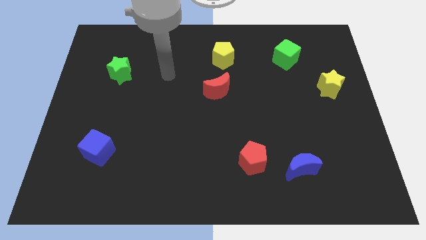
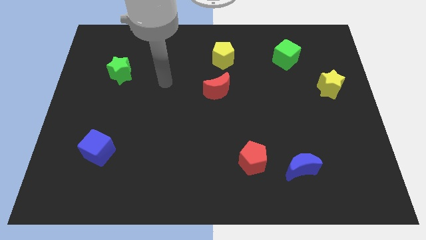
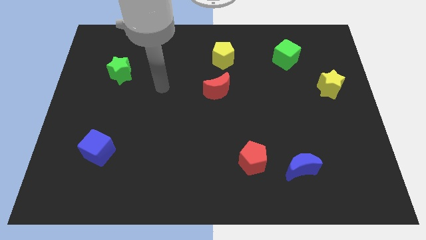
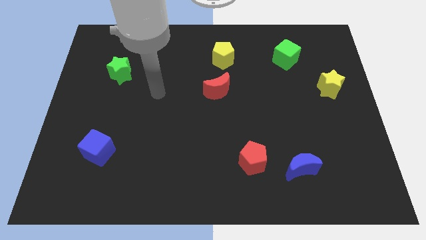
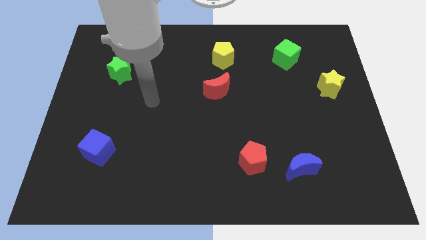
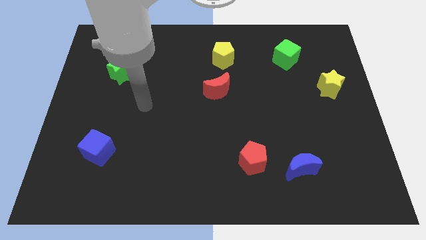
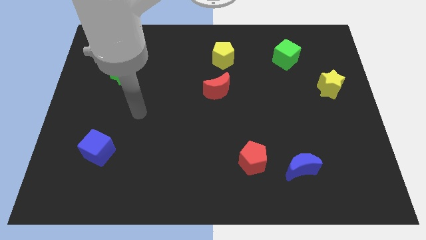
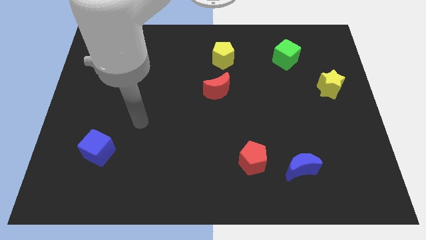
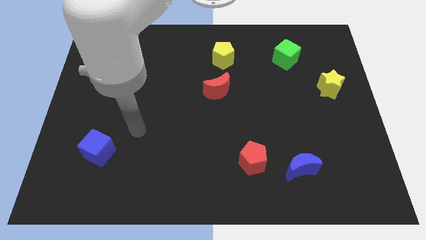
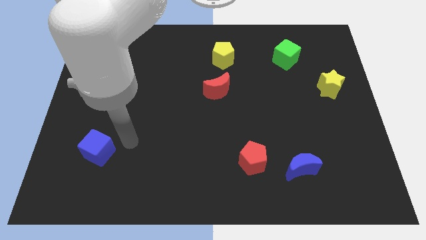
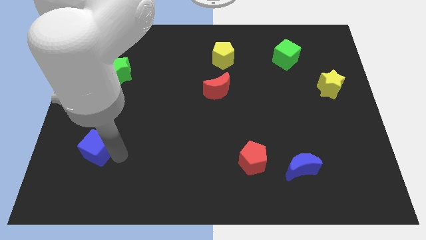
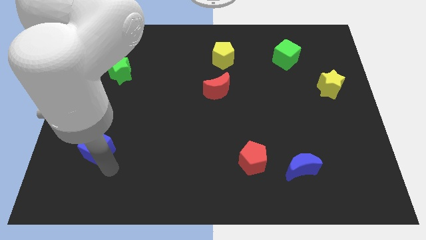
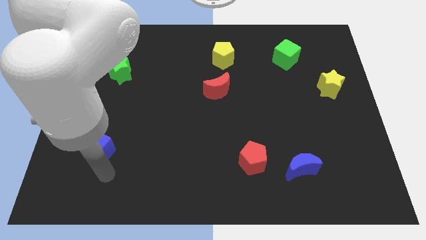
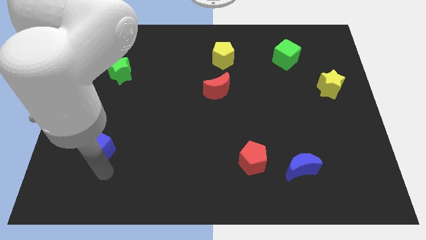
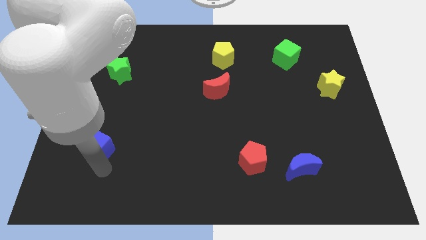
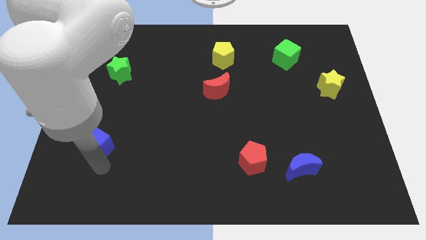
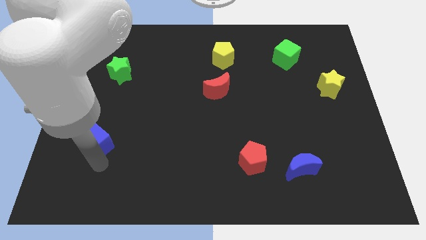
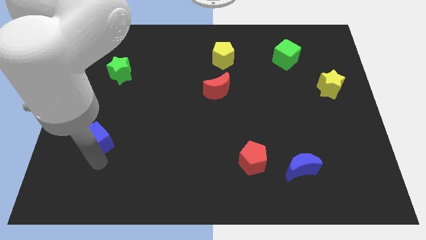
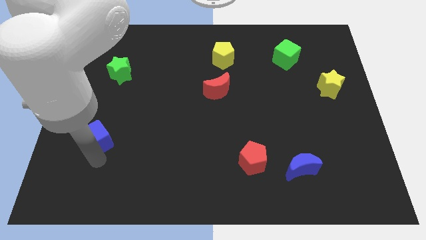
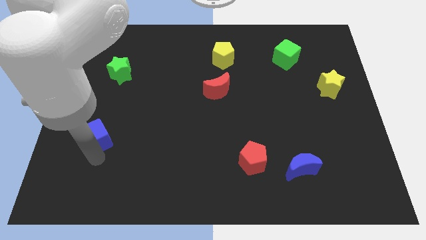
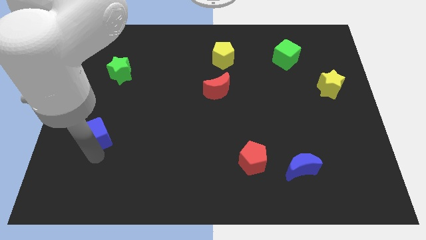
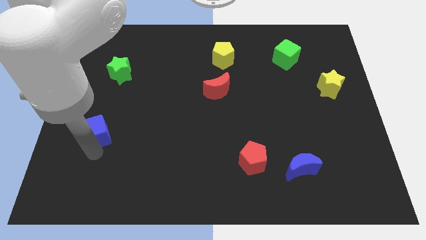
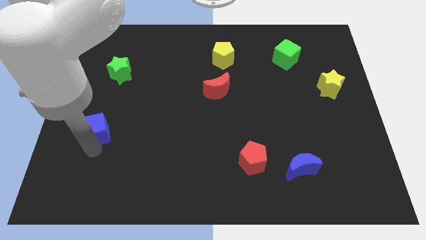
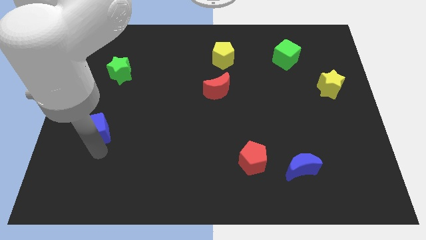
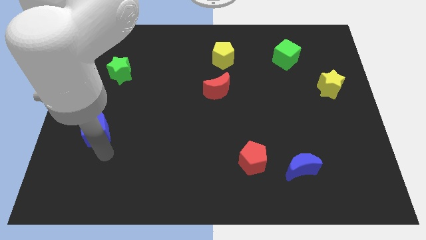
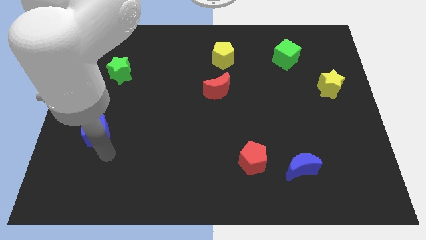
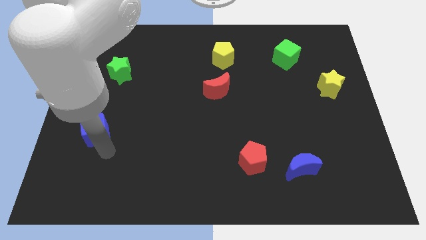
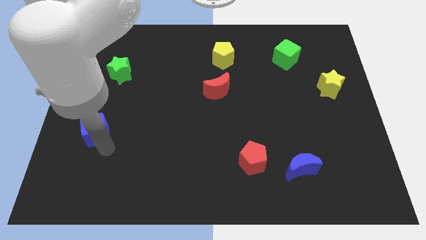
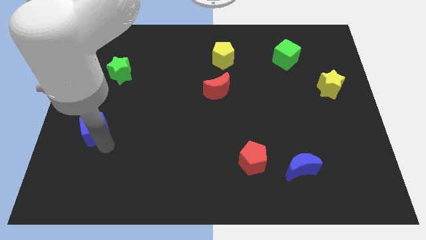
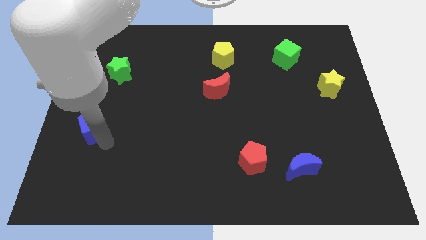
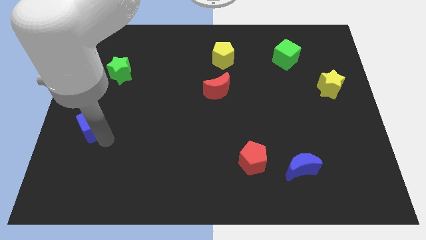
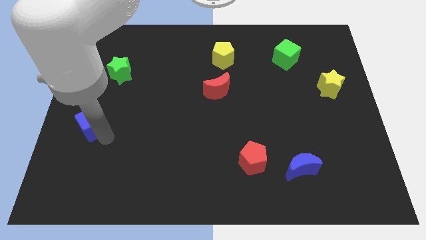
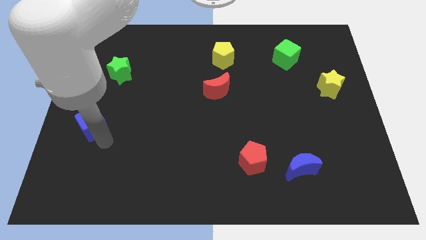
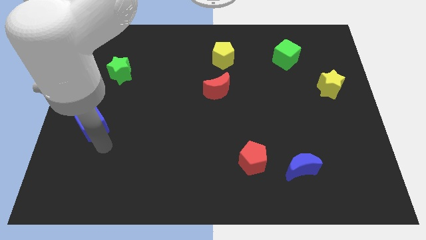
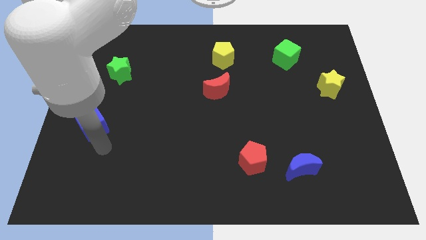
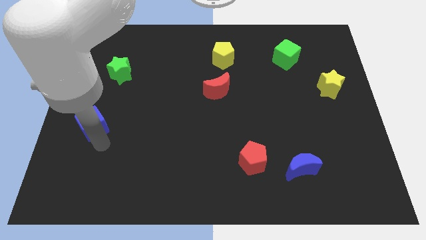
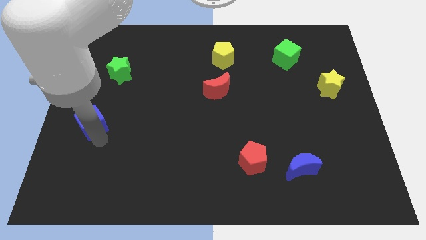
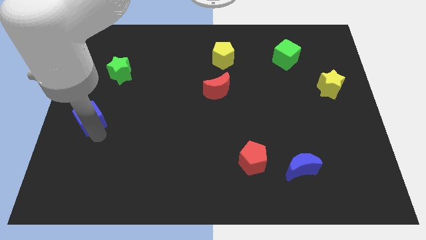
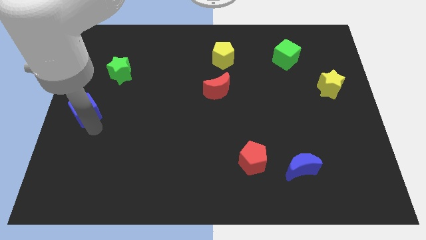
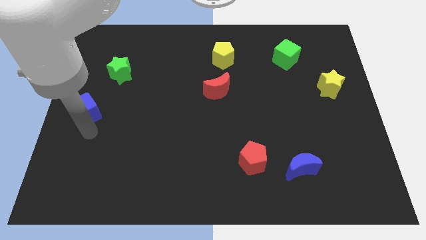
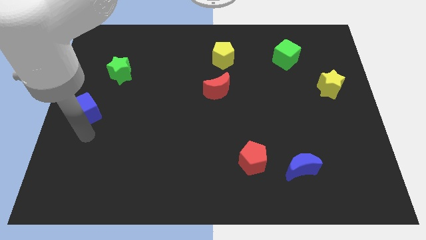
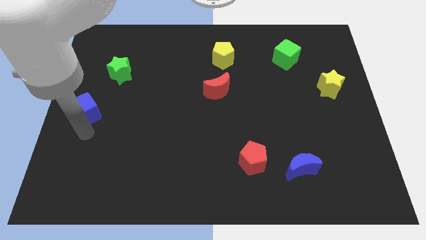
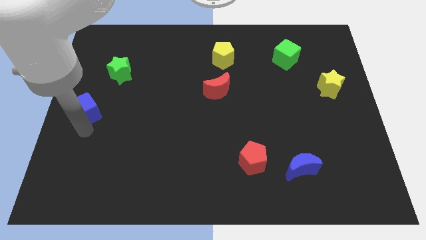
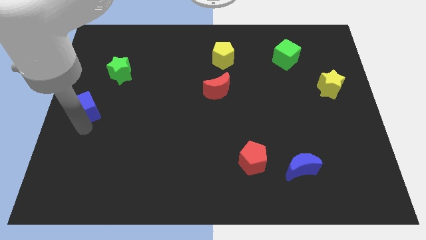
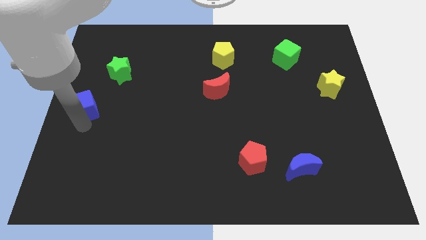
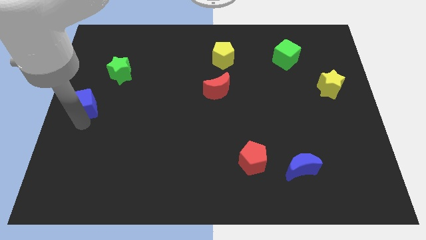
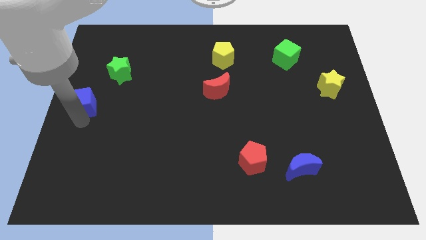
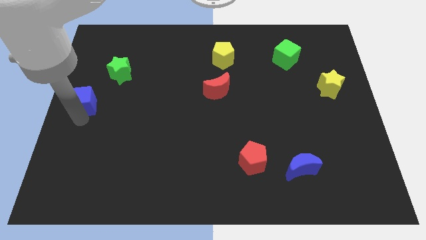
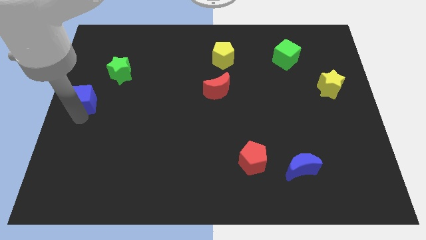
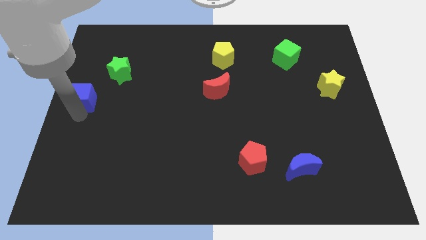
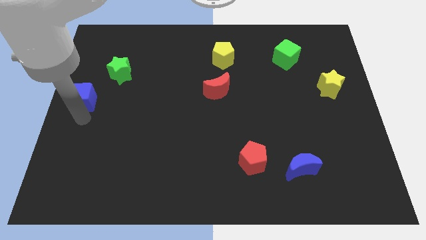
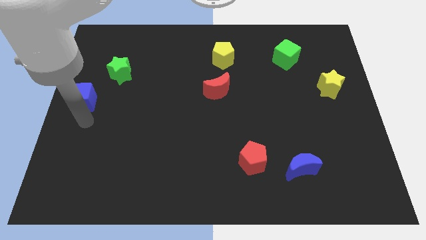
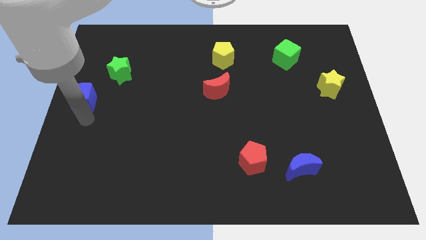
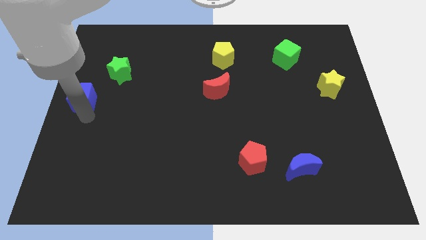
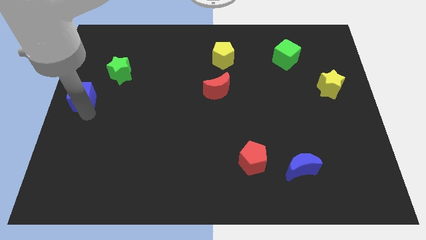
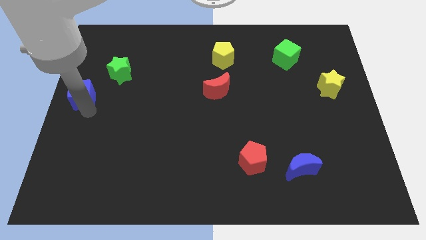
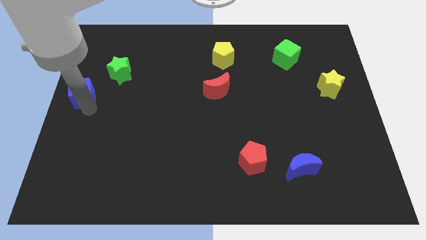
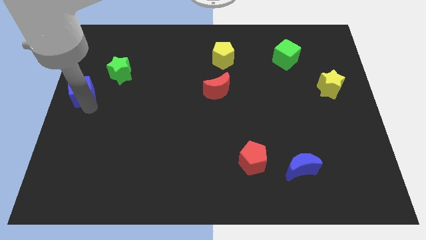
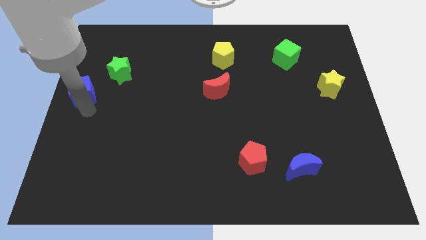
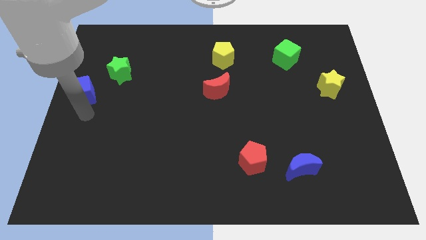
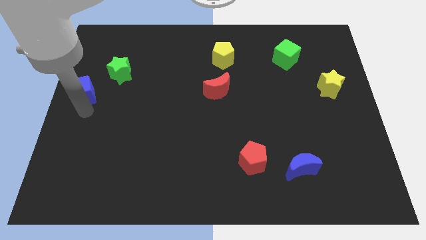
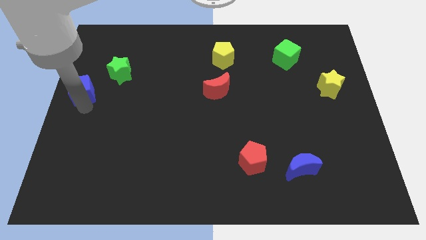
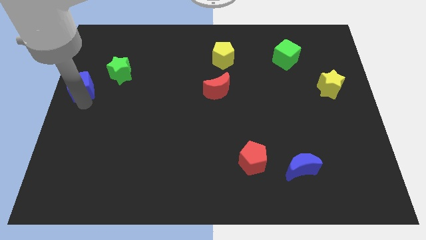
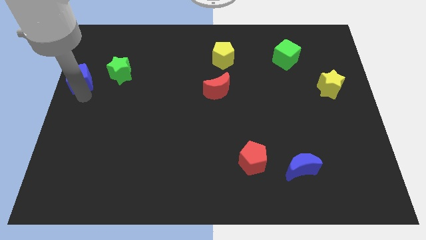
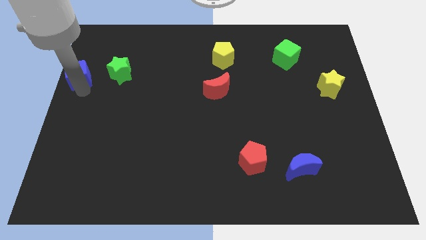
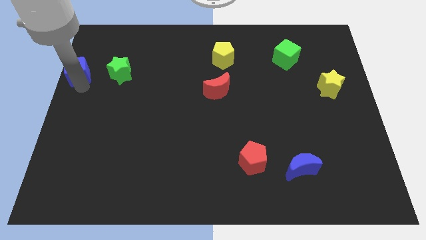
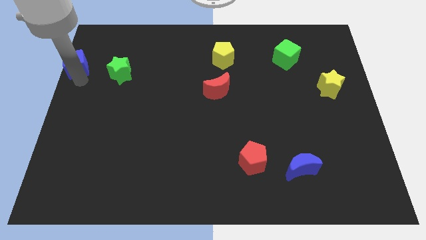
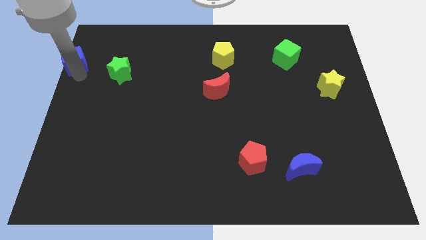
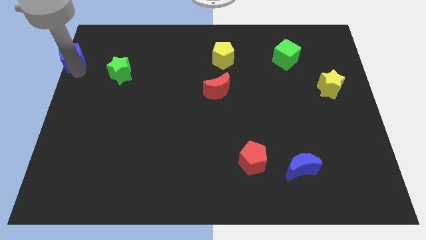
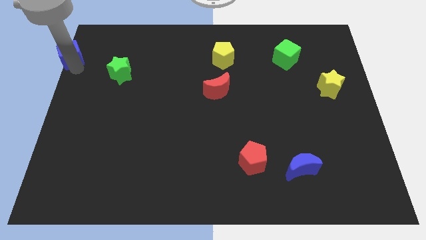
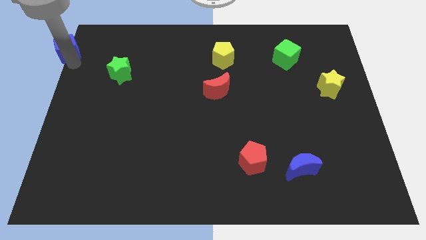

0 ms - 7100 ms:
push the blue cube to the upper left corner
